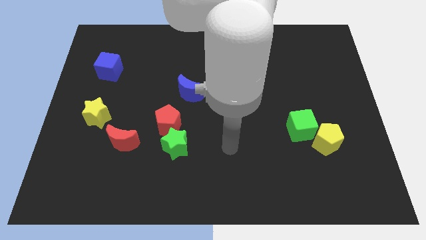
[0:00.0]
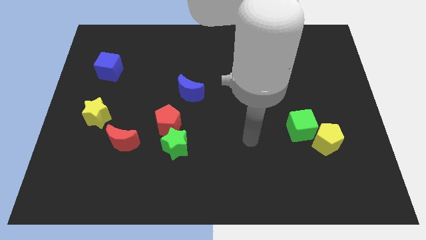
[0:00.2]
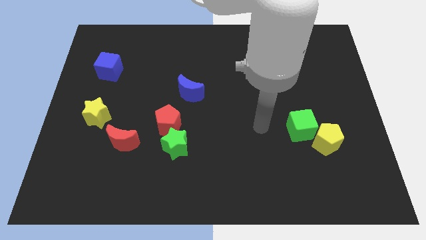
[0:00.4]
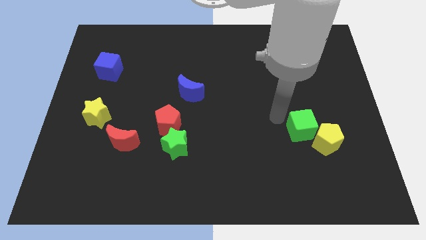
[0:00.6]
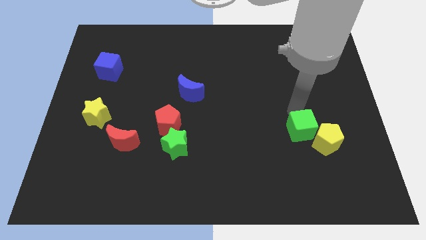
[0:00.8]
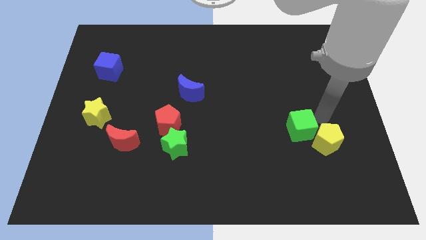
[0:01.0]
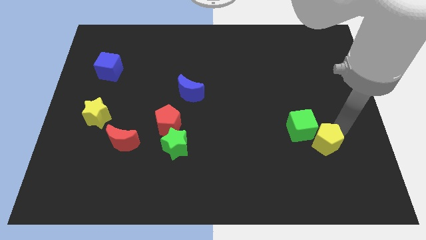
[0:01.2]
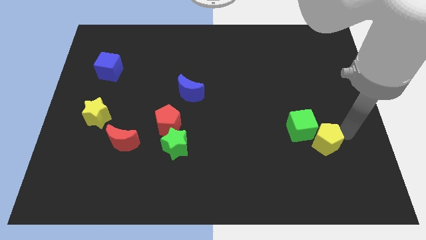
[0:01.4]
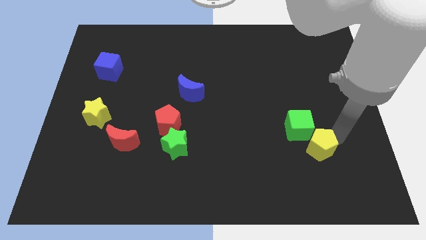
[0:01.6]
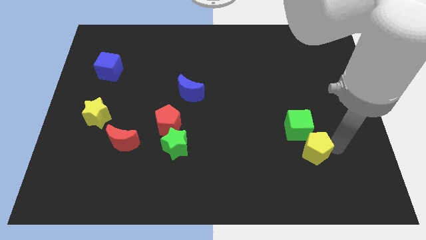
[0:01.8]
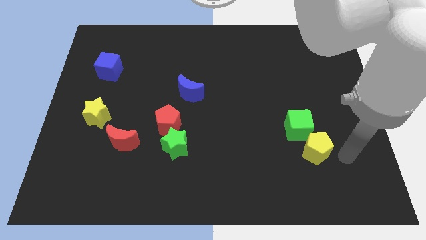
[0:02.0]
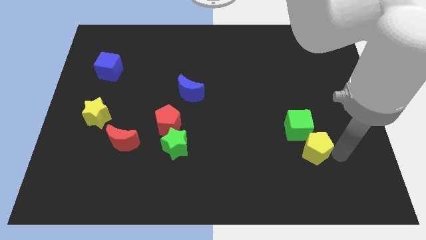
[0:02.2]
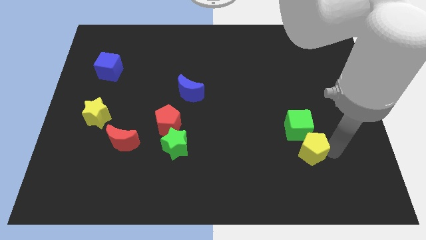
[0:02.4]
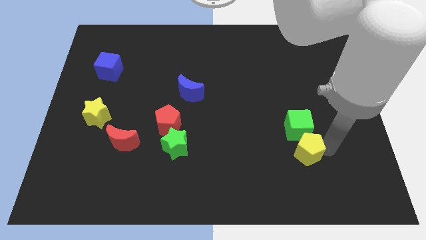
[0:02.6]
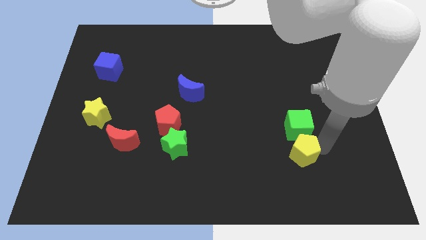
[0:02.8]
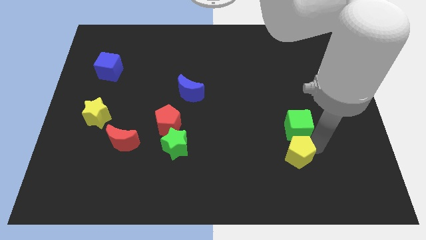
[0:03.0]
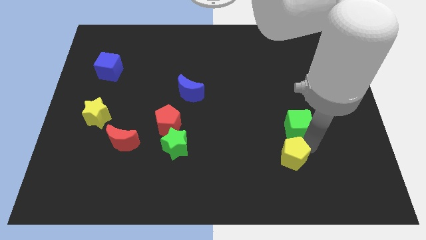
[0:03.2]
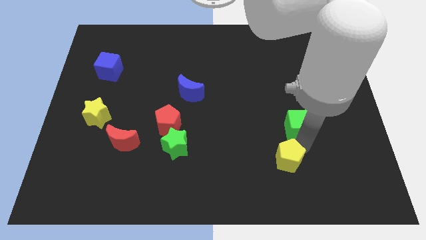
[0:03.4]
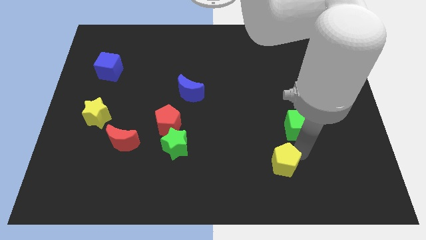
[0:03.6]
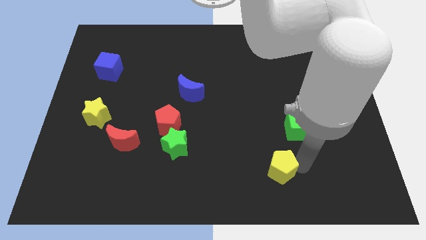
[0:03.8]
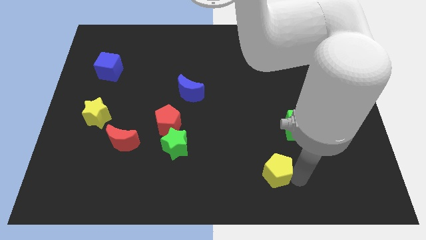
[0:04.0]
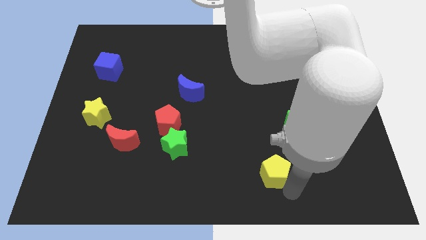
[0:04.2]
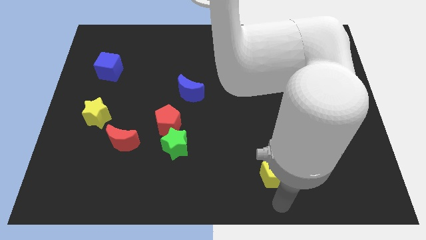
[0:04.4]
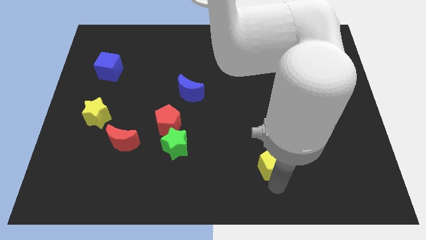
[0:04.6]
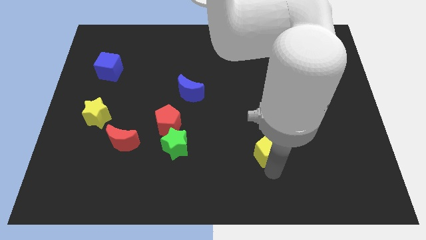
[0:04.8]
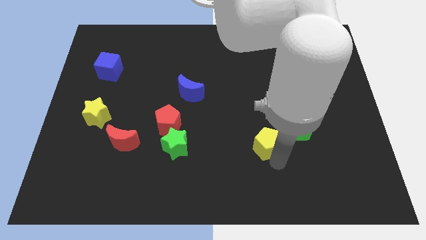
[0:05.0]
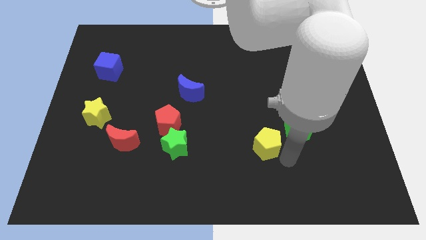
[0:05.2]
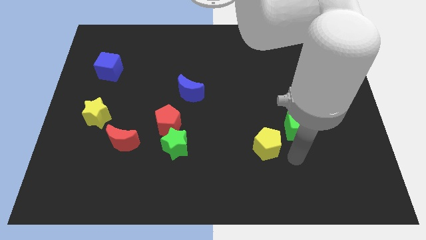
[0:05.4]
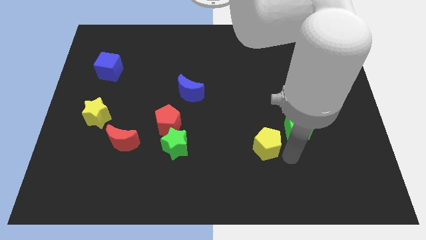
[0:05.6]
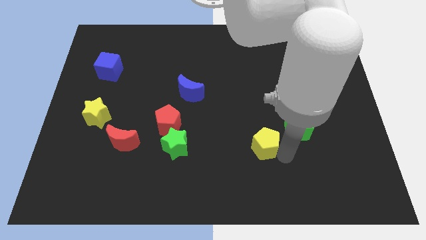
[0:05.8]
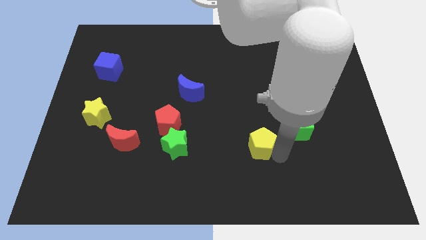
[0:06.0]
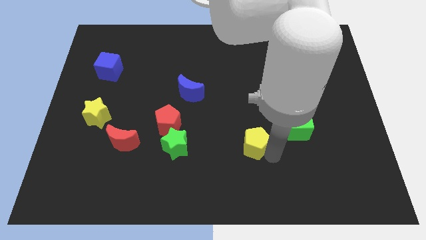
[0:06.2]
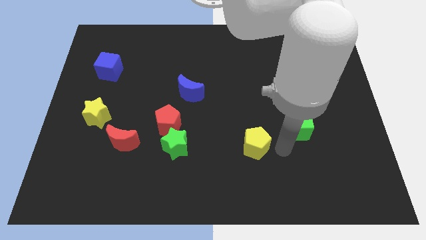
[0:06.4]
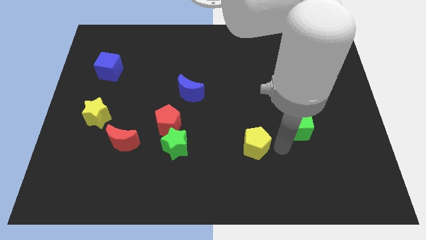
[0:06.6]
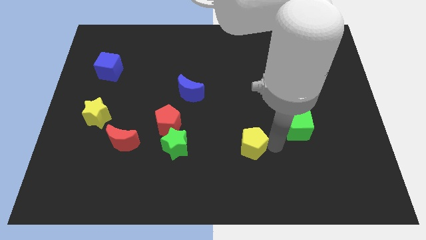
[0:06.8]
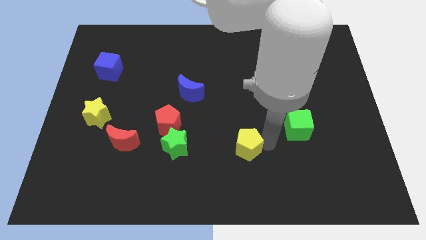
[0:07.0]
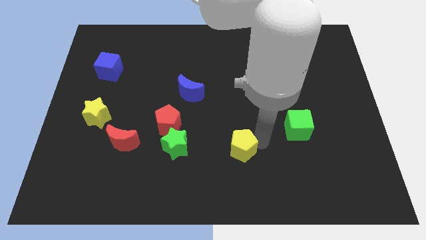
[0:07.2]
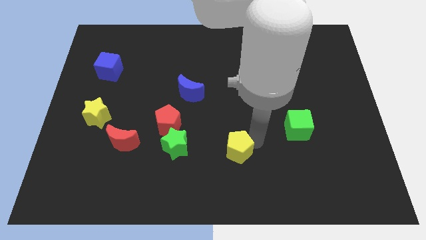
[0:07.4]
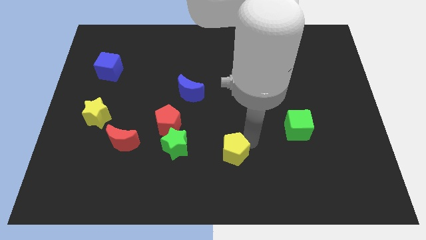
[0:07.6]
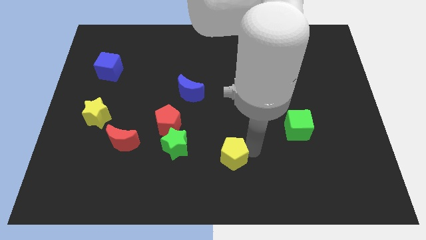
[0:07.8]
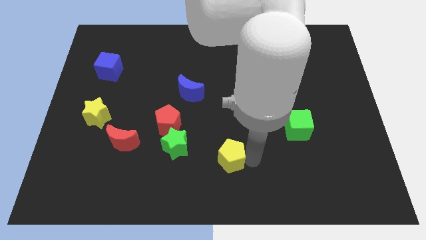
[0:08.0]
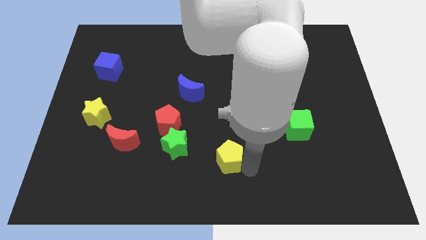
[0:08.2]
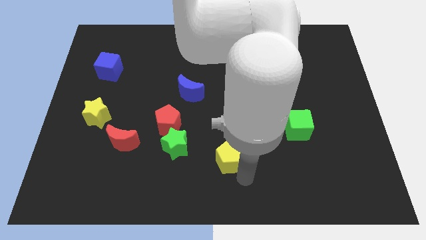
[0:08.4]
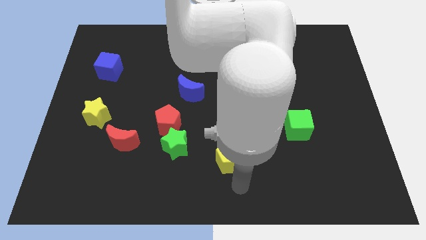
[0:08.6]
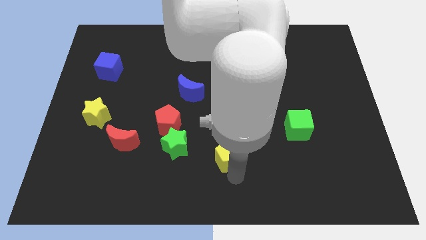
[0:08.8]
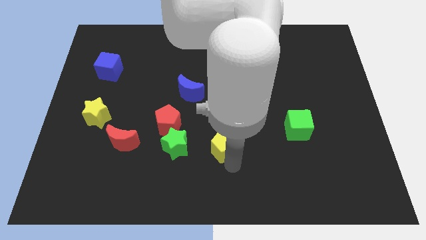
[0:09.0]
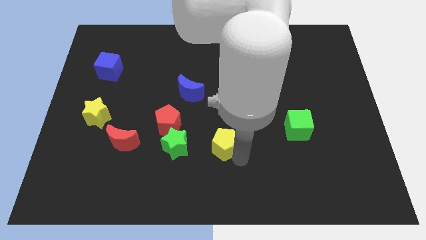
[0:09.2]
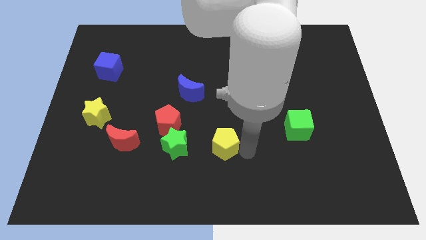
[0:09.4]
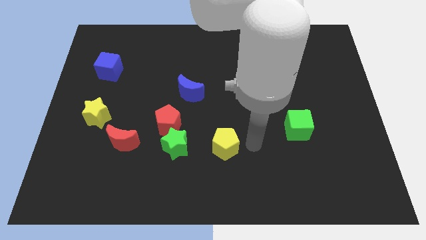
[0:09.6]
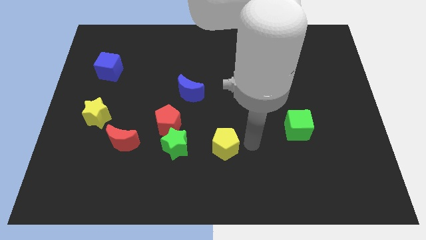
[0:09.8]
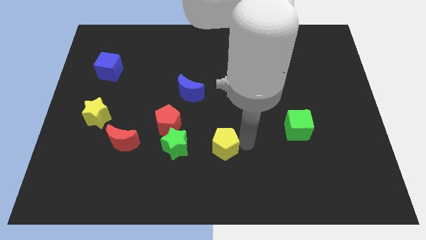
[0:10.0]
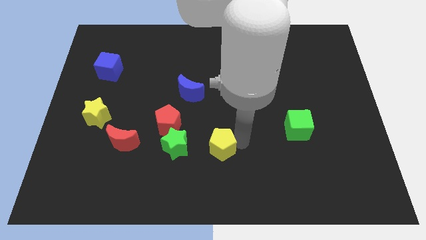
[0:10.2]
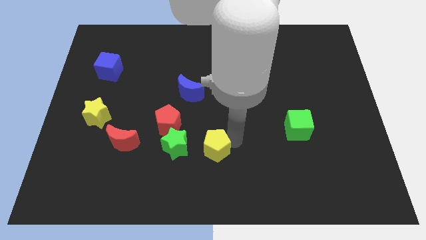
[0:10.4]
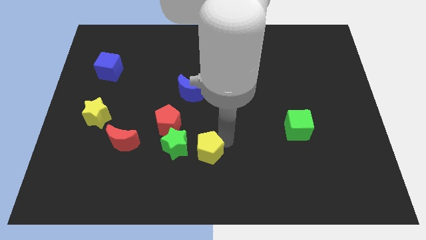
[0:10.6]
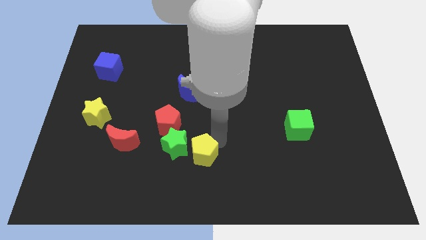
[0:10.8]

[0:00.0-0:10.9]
put the yellow pentagon close to the green star

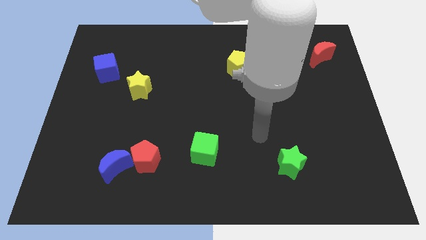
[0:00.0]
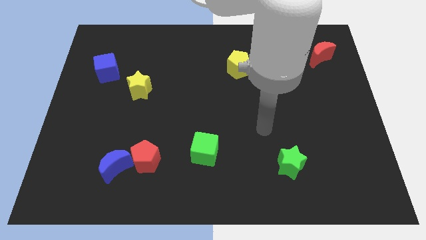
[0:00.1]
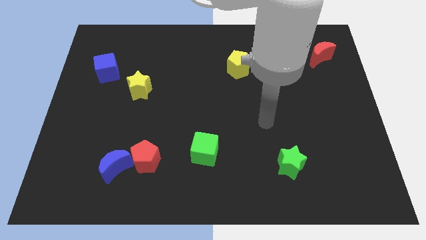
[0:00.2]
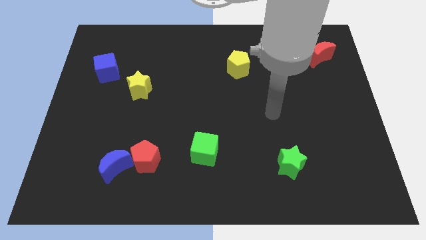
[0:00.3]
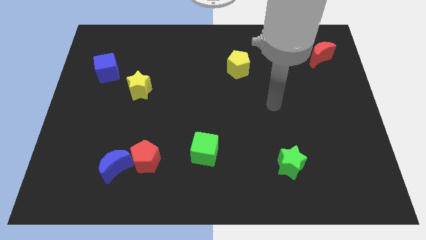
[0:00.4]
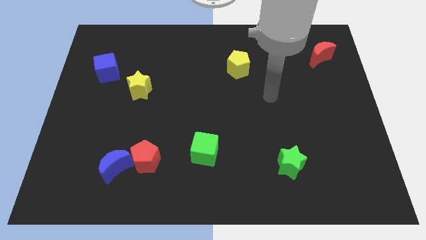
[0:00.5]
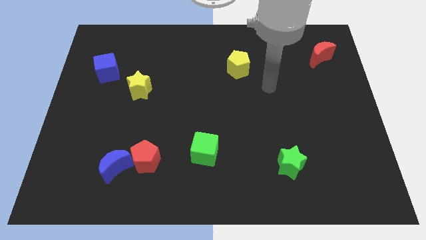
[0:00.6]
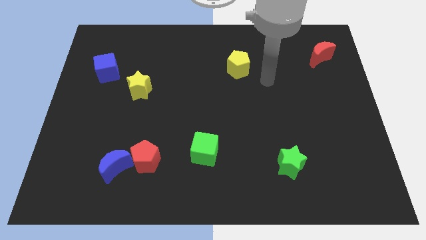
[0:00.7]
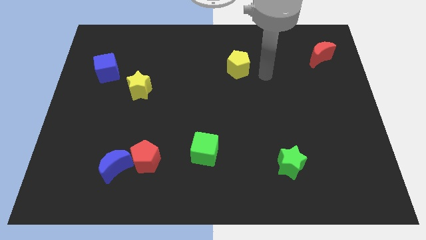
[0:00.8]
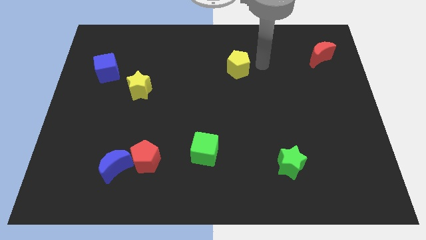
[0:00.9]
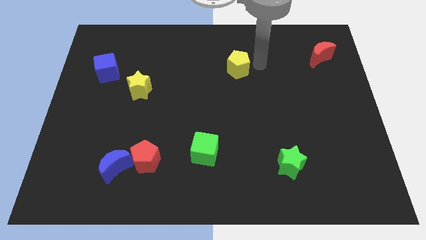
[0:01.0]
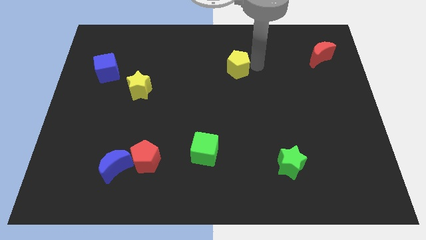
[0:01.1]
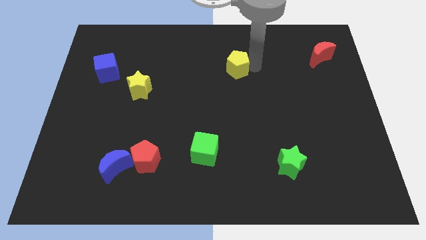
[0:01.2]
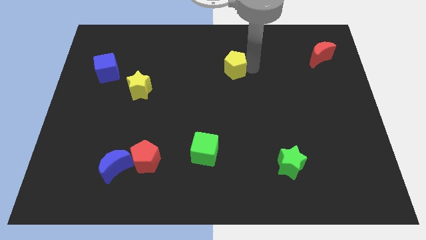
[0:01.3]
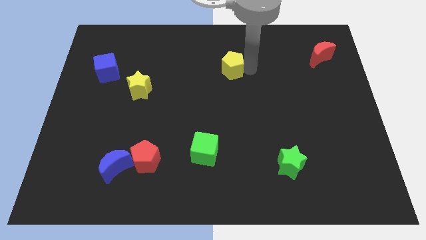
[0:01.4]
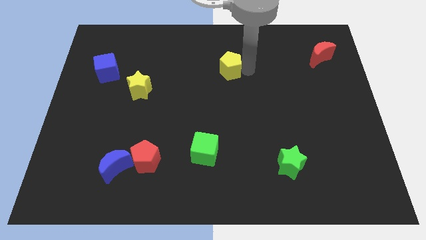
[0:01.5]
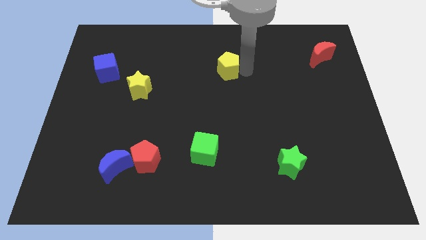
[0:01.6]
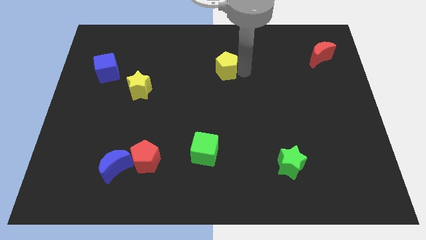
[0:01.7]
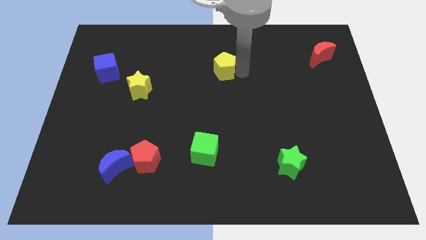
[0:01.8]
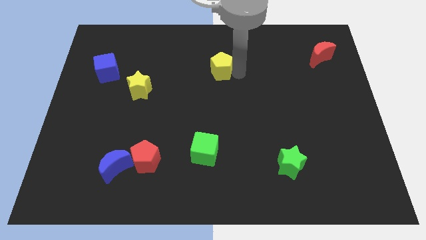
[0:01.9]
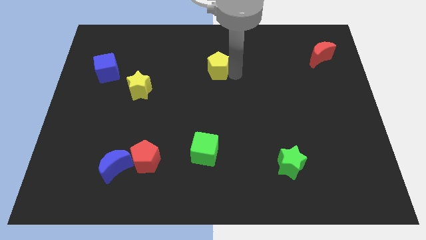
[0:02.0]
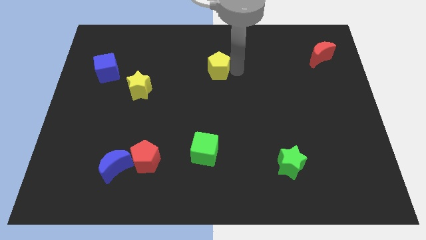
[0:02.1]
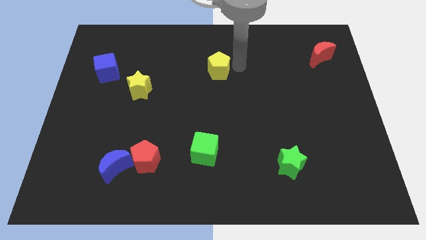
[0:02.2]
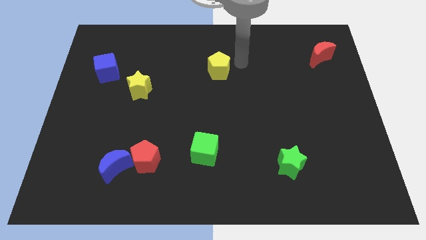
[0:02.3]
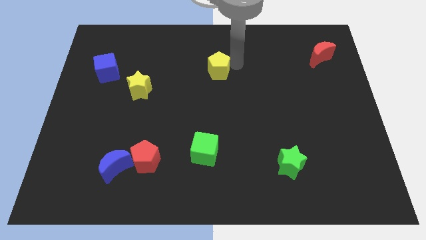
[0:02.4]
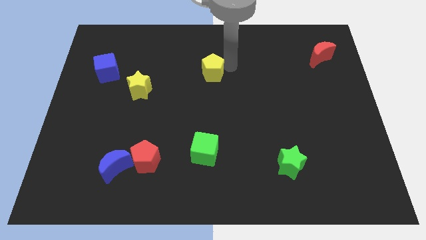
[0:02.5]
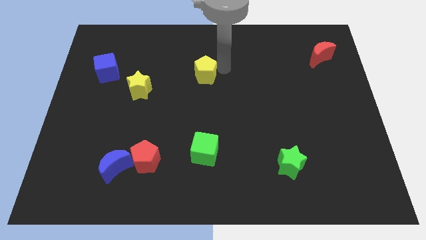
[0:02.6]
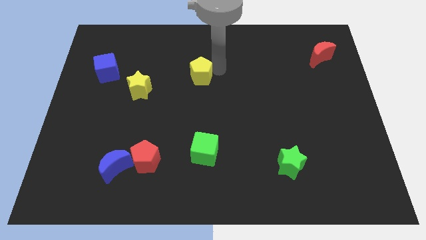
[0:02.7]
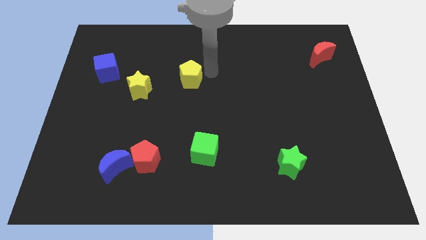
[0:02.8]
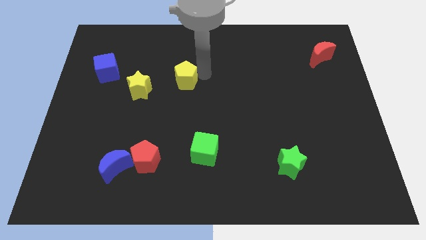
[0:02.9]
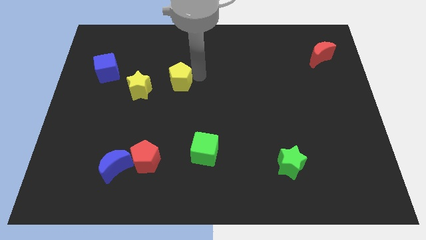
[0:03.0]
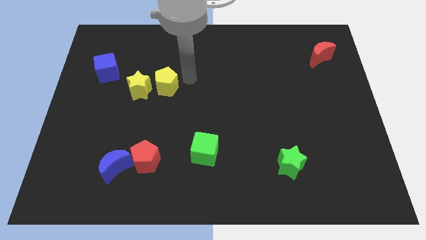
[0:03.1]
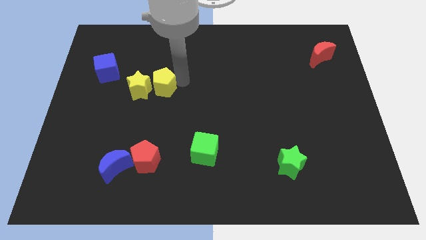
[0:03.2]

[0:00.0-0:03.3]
put the yellow pentagon next to the yellow star
